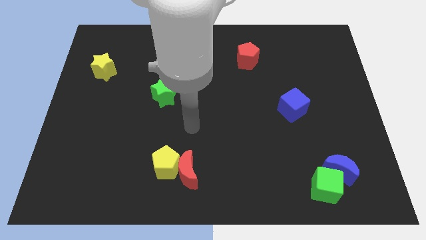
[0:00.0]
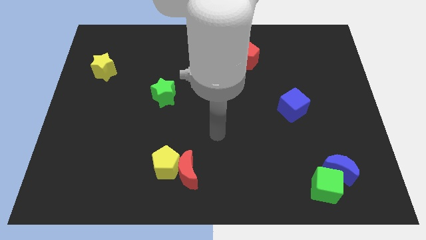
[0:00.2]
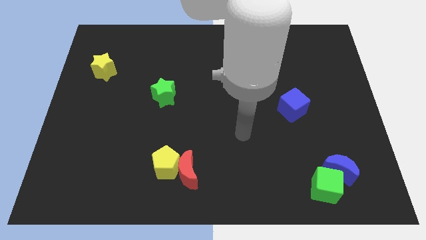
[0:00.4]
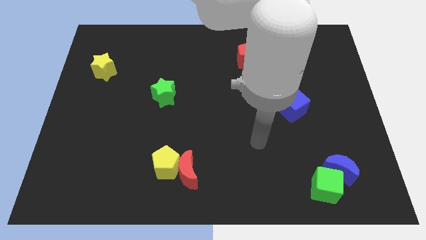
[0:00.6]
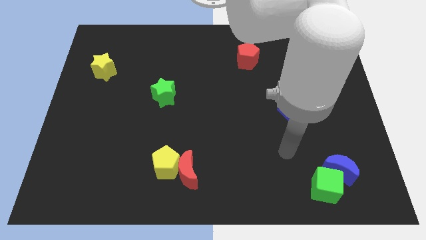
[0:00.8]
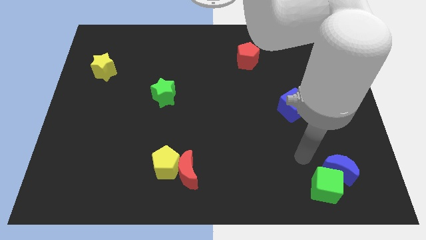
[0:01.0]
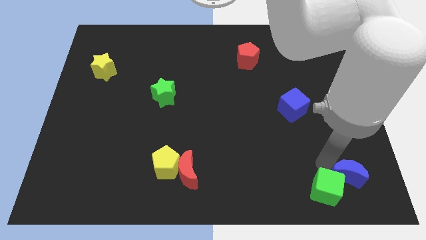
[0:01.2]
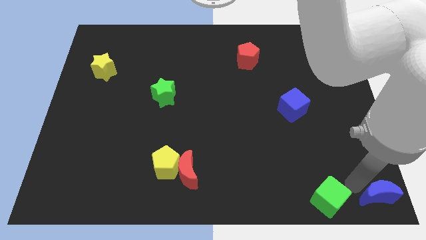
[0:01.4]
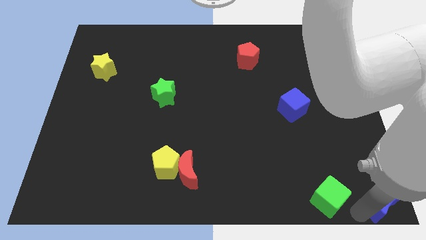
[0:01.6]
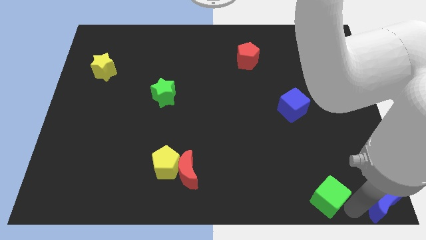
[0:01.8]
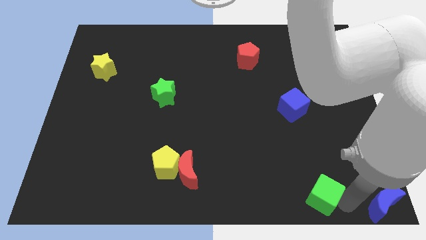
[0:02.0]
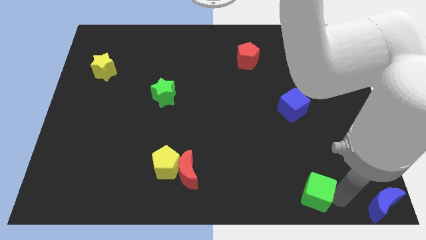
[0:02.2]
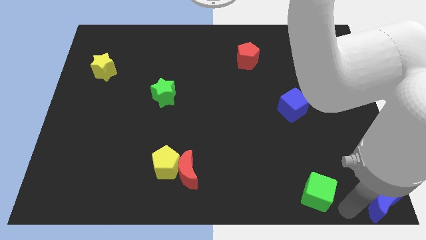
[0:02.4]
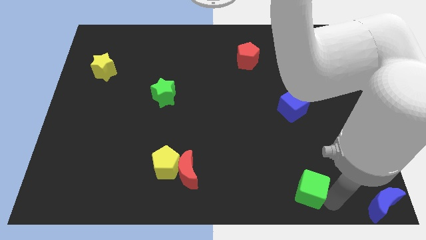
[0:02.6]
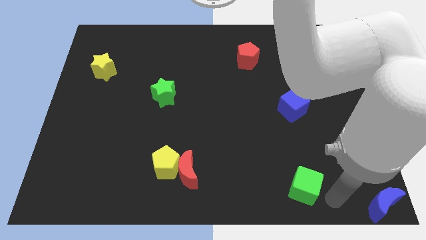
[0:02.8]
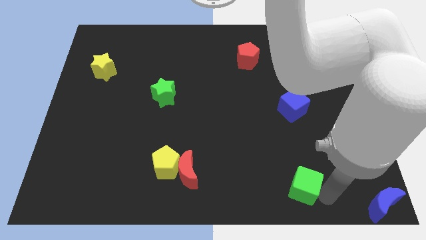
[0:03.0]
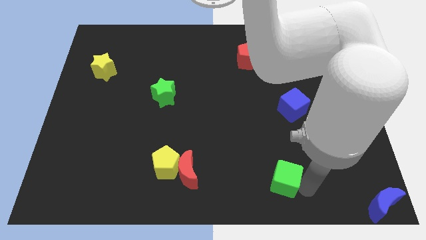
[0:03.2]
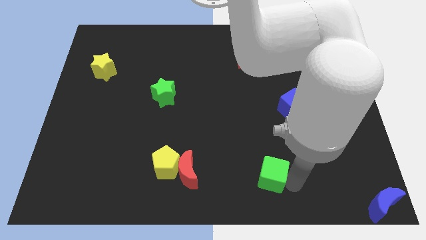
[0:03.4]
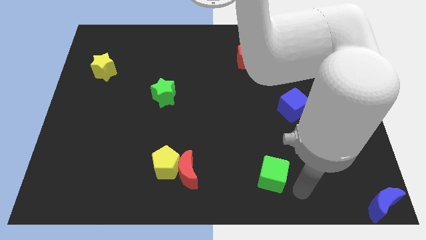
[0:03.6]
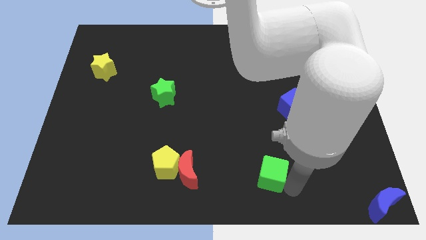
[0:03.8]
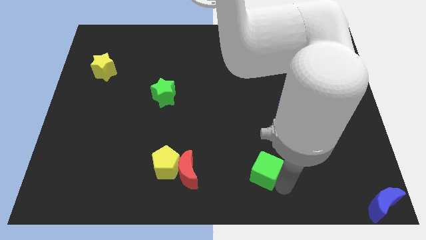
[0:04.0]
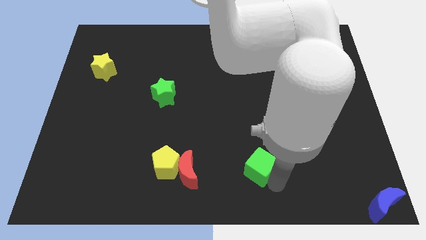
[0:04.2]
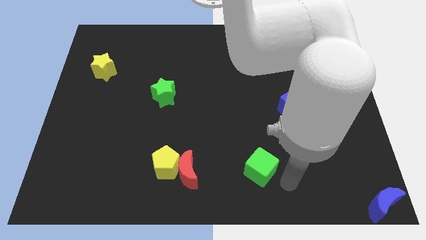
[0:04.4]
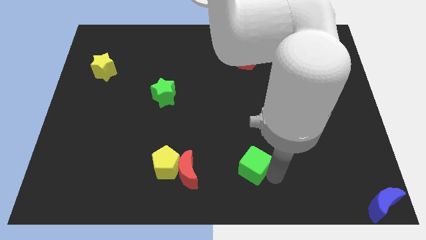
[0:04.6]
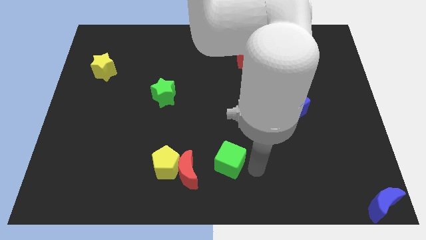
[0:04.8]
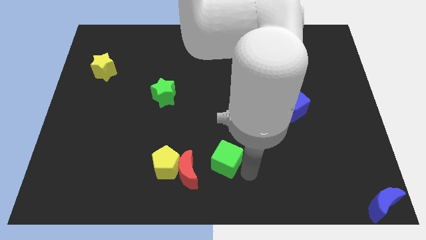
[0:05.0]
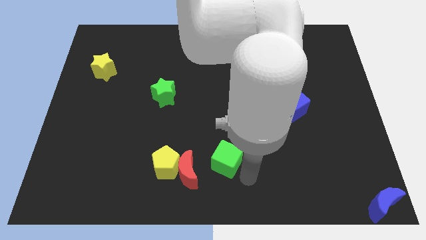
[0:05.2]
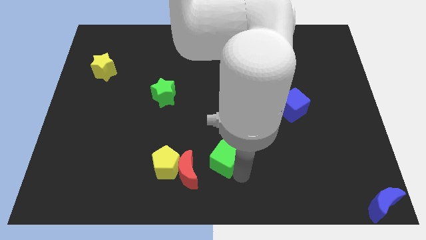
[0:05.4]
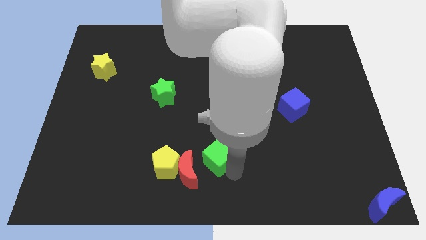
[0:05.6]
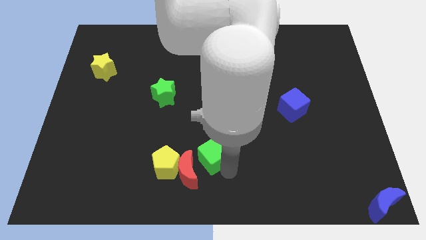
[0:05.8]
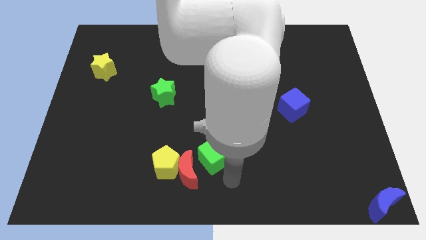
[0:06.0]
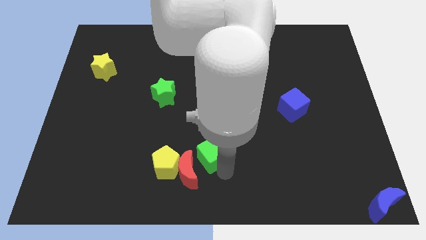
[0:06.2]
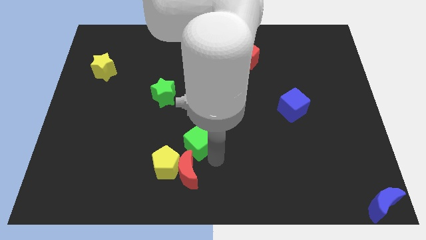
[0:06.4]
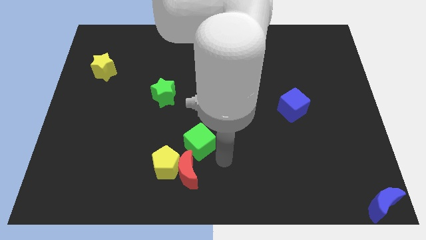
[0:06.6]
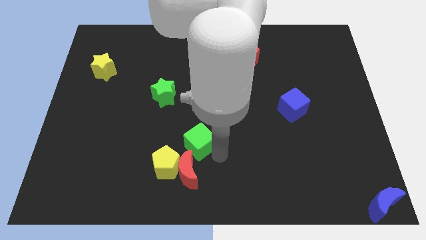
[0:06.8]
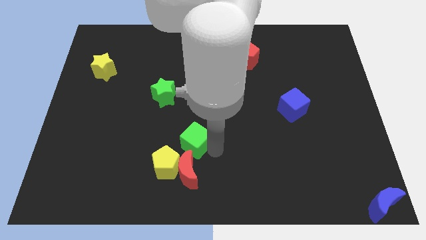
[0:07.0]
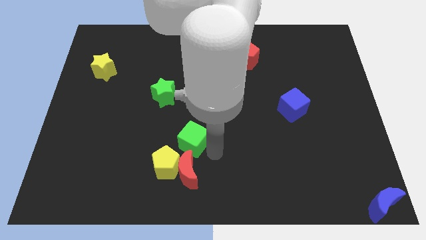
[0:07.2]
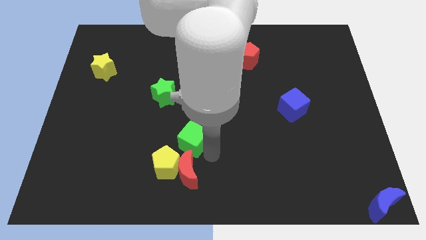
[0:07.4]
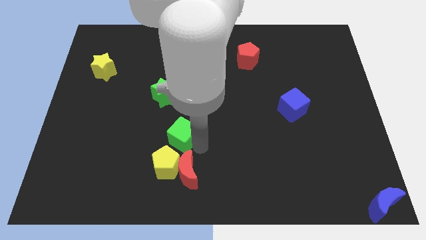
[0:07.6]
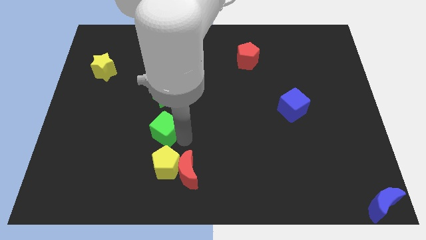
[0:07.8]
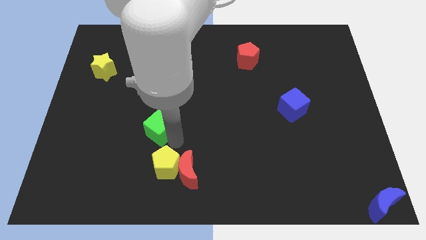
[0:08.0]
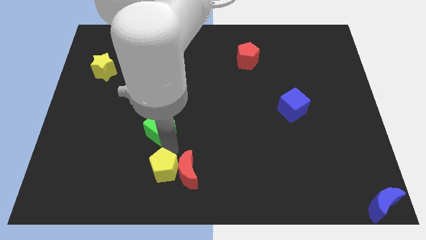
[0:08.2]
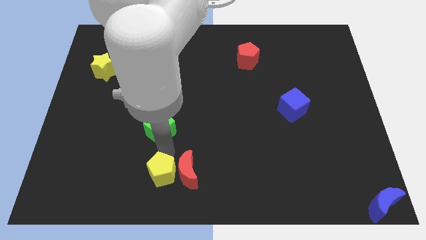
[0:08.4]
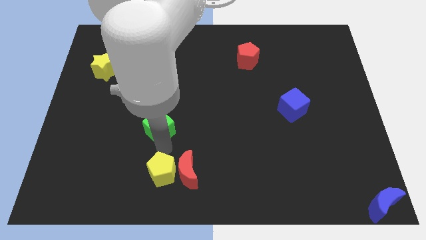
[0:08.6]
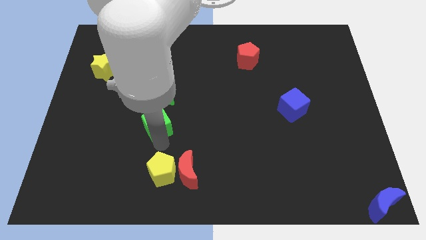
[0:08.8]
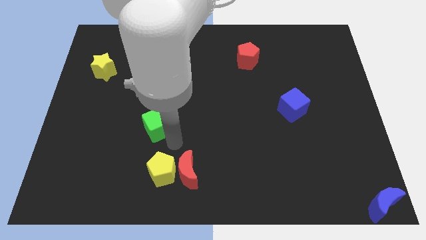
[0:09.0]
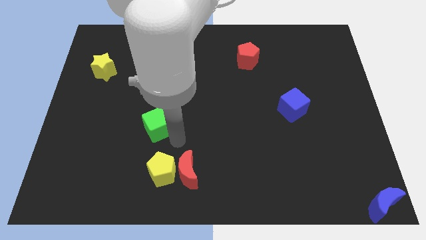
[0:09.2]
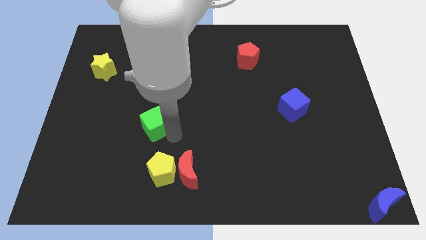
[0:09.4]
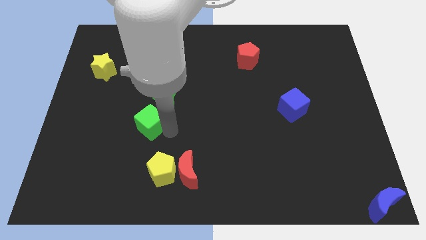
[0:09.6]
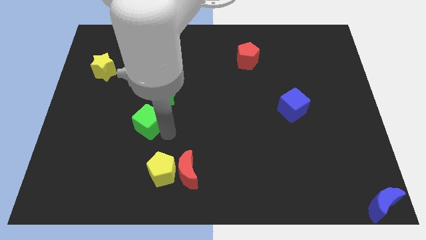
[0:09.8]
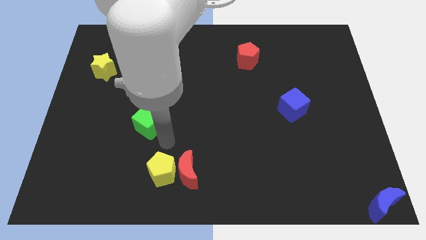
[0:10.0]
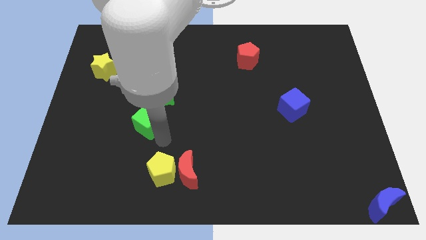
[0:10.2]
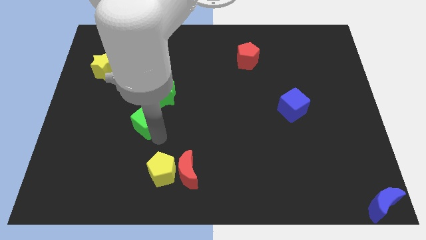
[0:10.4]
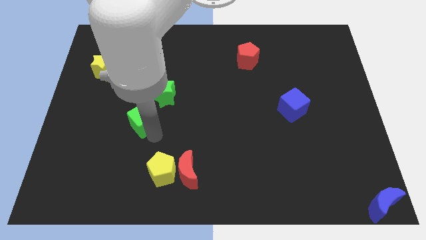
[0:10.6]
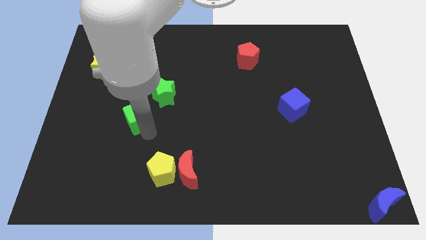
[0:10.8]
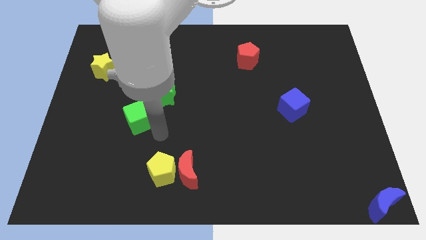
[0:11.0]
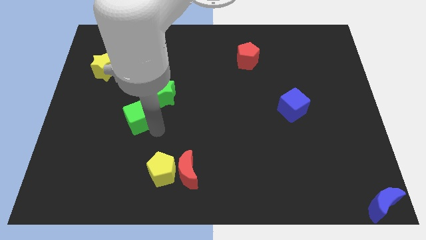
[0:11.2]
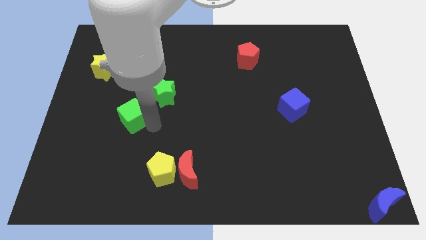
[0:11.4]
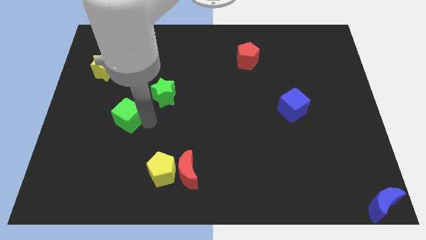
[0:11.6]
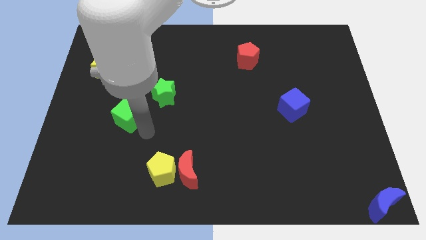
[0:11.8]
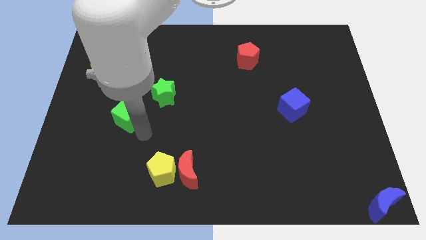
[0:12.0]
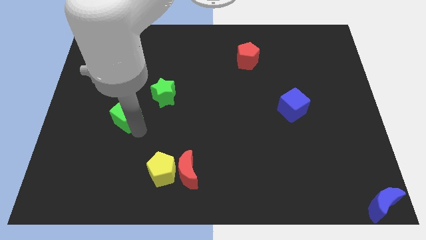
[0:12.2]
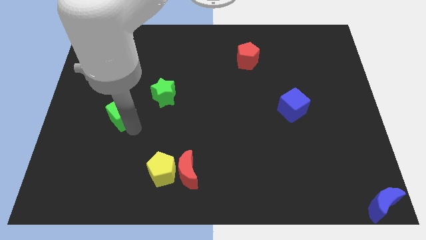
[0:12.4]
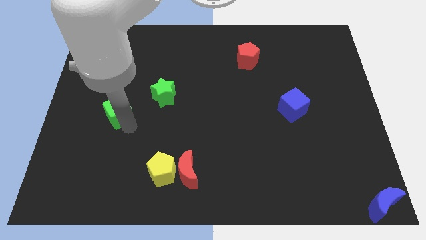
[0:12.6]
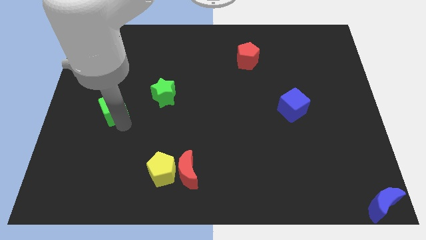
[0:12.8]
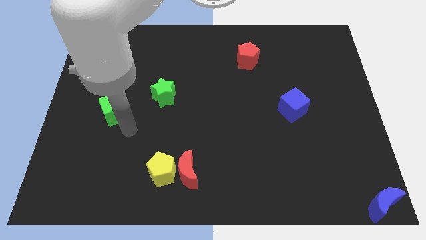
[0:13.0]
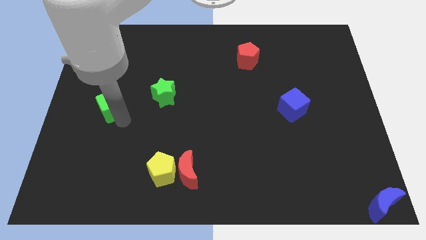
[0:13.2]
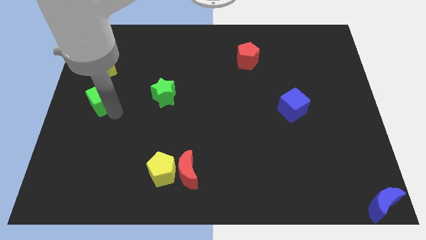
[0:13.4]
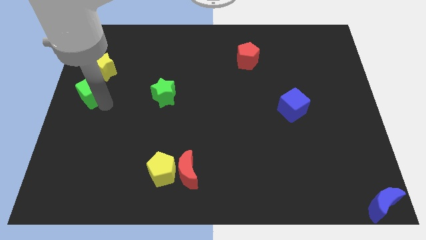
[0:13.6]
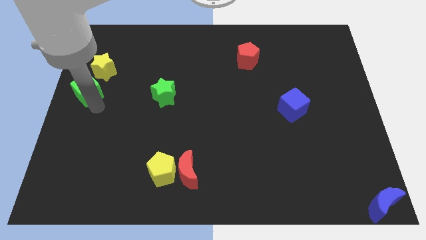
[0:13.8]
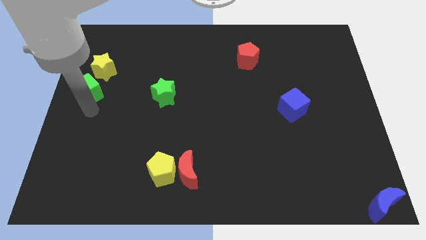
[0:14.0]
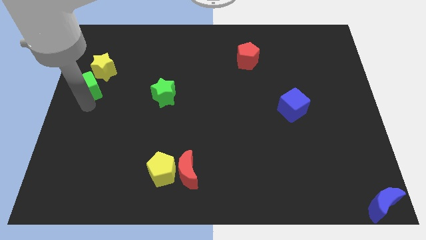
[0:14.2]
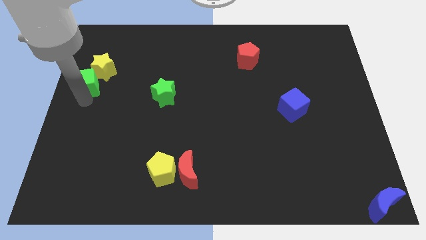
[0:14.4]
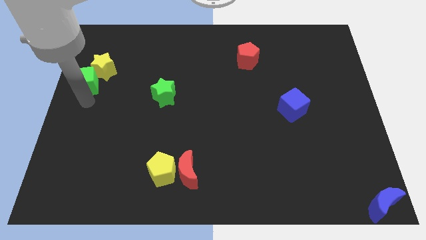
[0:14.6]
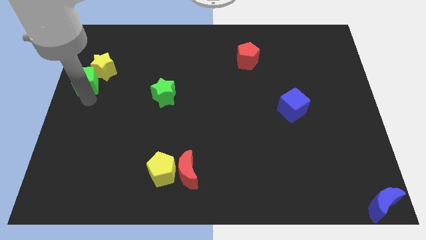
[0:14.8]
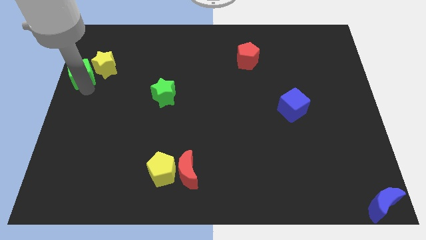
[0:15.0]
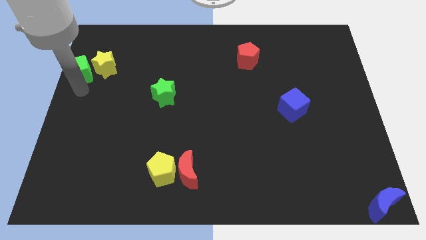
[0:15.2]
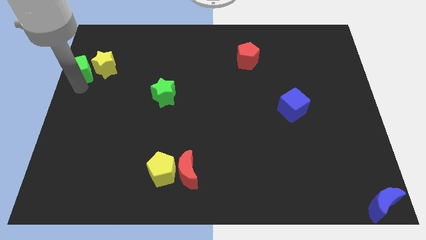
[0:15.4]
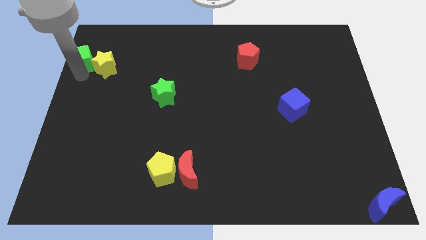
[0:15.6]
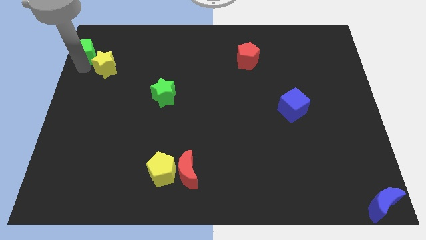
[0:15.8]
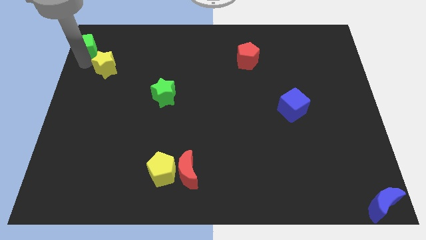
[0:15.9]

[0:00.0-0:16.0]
push the green cube to the upper left corner
